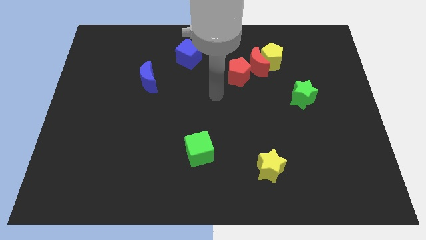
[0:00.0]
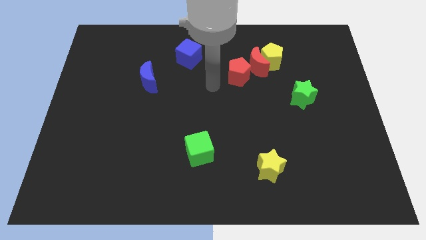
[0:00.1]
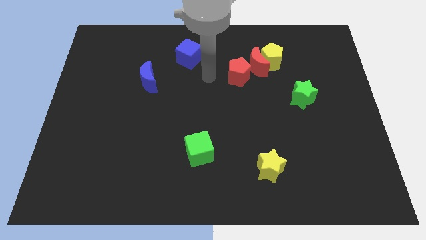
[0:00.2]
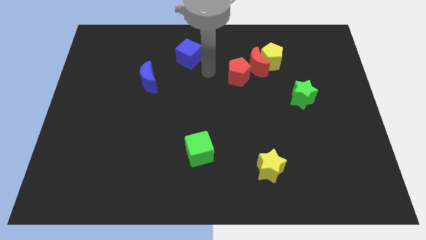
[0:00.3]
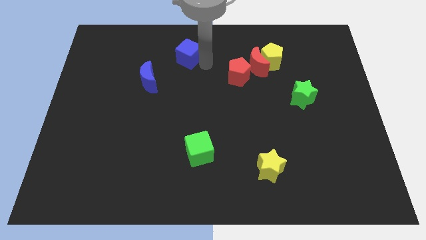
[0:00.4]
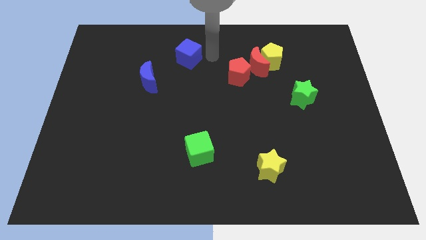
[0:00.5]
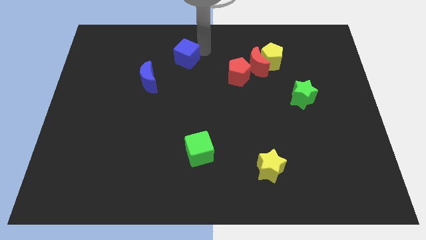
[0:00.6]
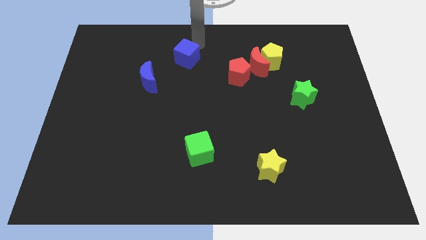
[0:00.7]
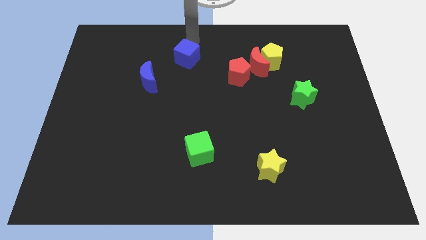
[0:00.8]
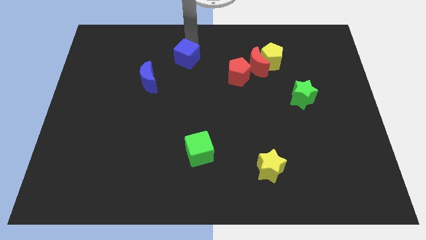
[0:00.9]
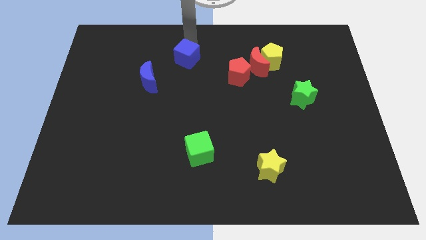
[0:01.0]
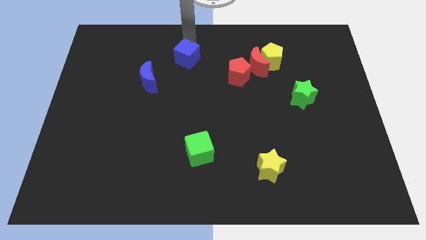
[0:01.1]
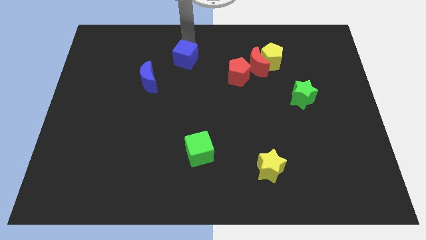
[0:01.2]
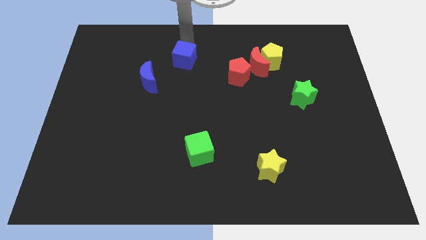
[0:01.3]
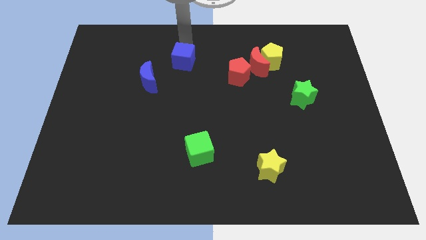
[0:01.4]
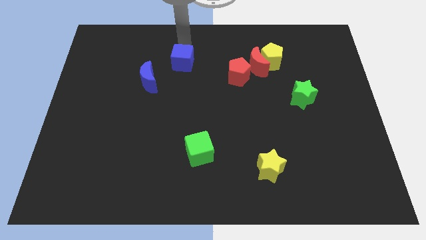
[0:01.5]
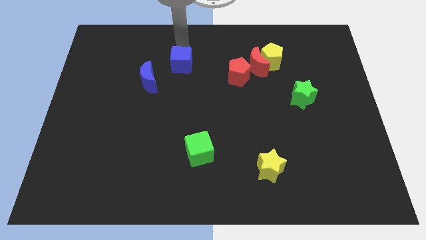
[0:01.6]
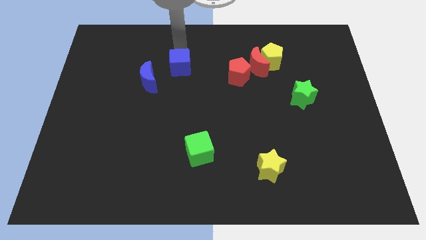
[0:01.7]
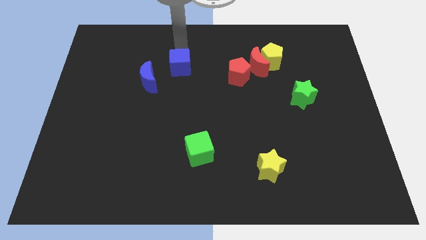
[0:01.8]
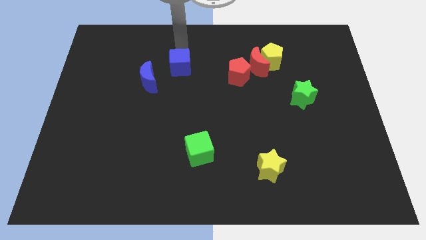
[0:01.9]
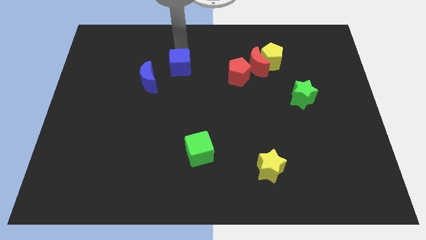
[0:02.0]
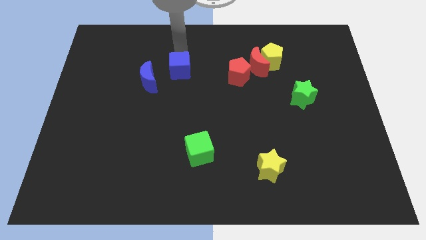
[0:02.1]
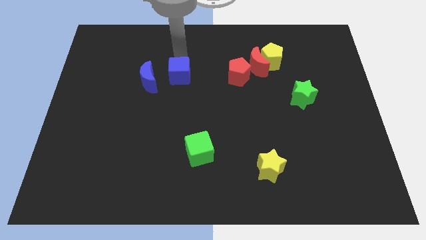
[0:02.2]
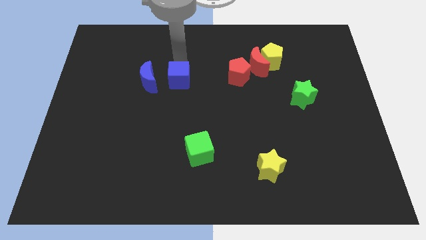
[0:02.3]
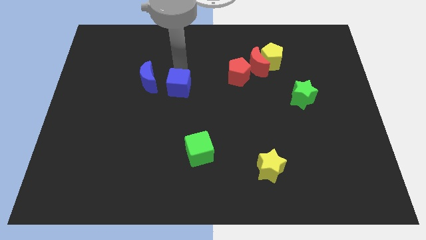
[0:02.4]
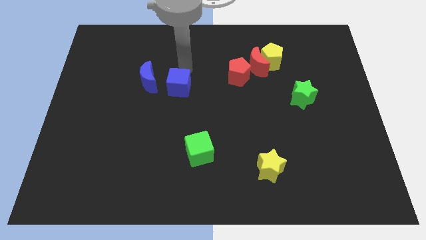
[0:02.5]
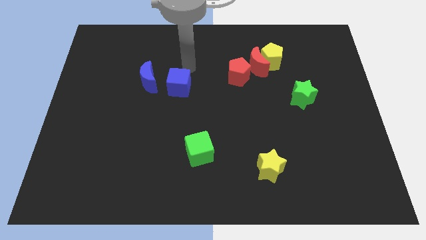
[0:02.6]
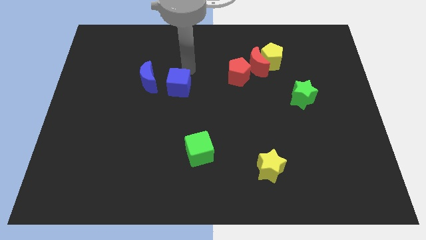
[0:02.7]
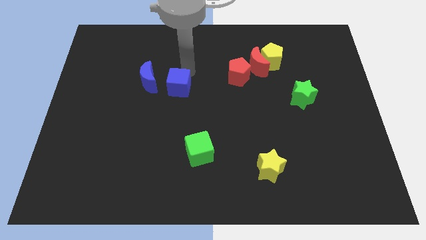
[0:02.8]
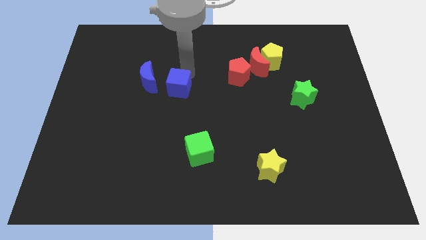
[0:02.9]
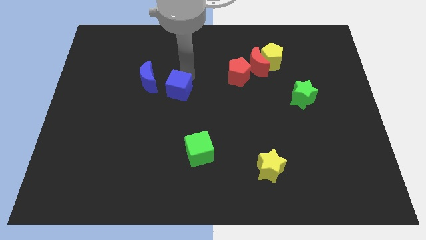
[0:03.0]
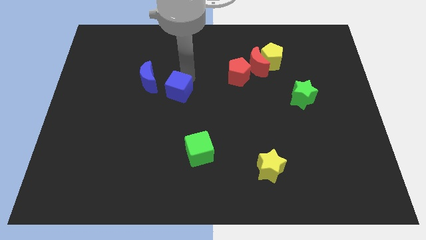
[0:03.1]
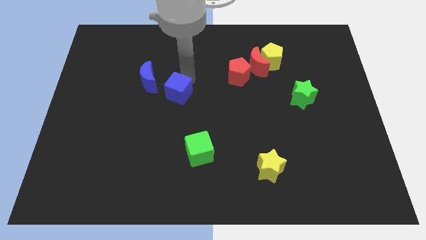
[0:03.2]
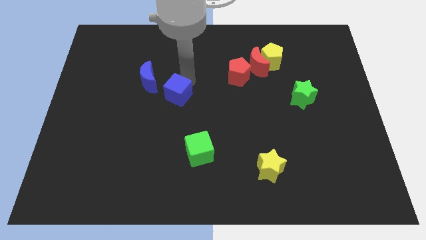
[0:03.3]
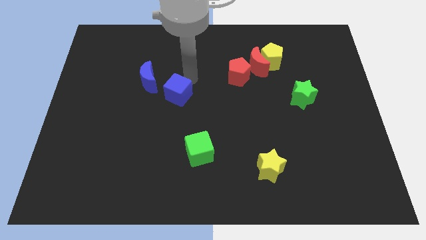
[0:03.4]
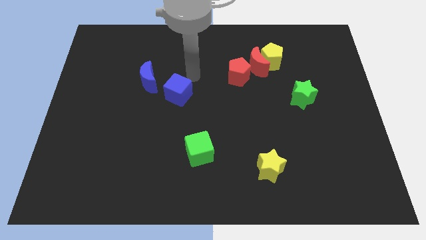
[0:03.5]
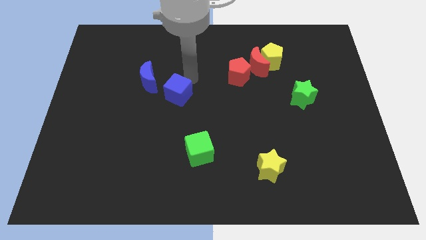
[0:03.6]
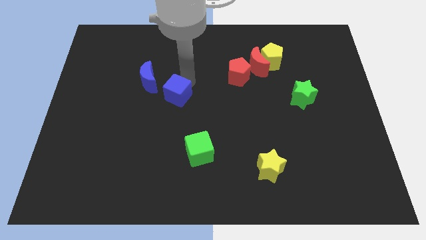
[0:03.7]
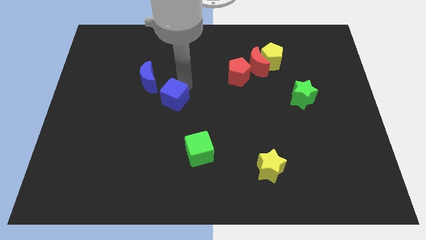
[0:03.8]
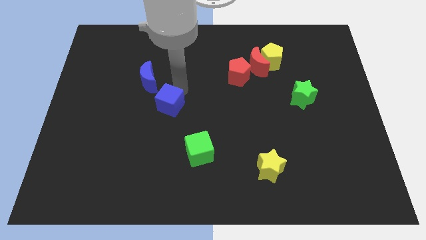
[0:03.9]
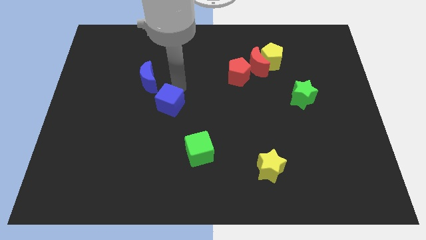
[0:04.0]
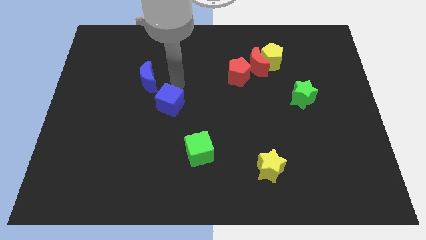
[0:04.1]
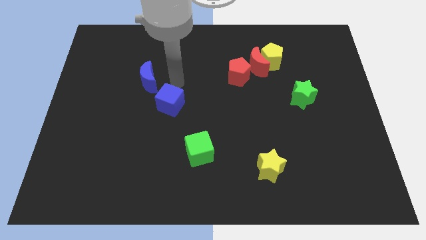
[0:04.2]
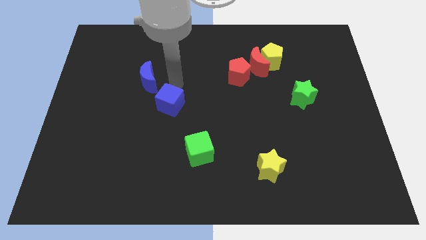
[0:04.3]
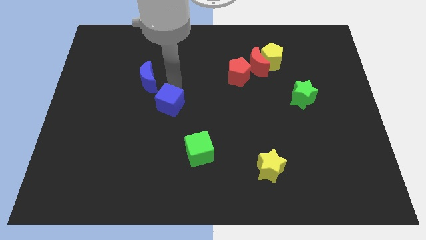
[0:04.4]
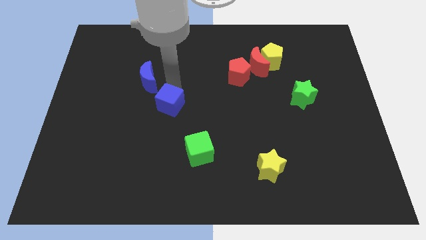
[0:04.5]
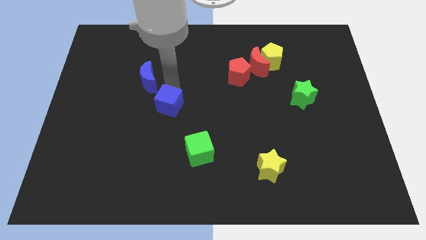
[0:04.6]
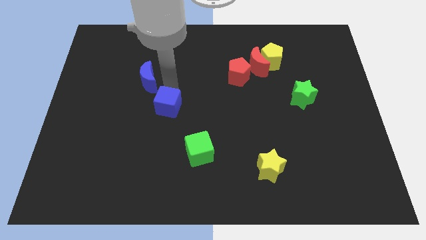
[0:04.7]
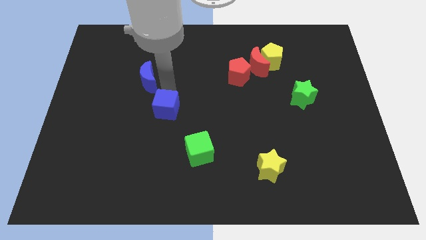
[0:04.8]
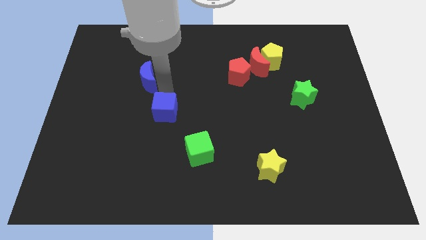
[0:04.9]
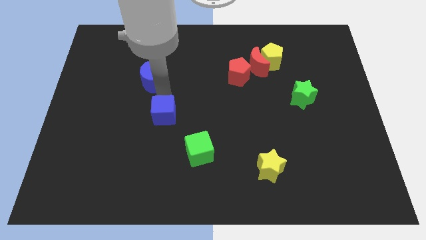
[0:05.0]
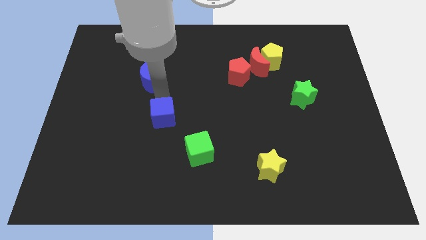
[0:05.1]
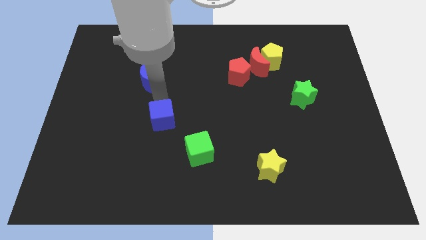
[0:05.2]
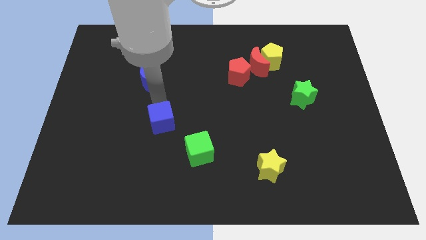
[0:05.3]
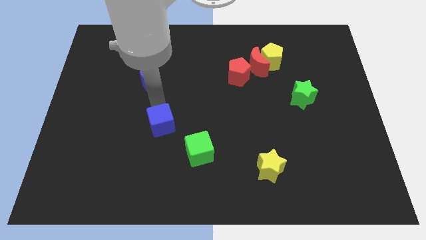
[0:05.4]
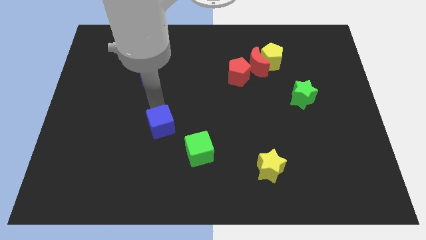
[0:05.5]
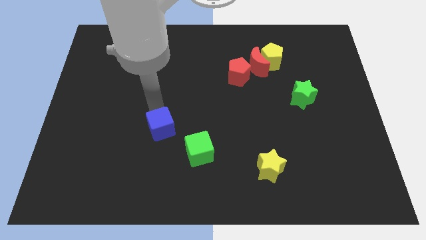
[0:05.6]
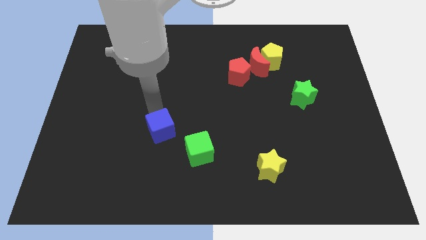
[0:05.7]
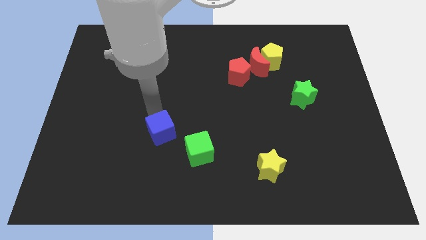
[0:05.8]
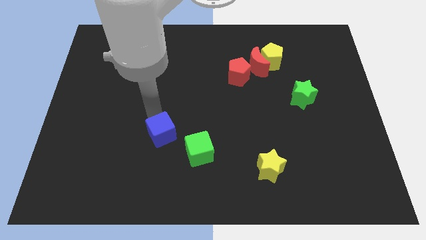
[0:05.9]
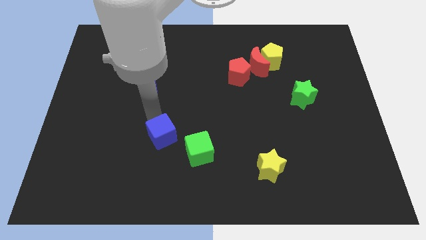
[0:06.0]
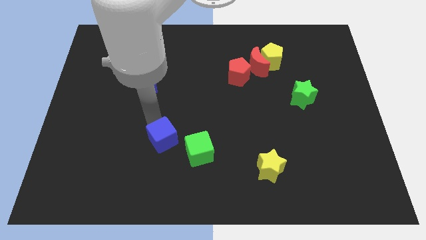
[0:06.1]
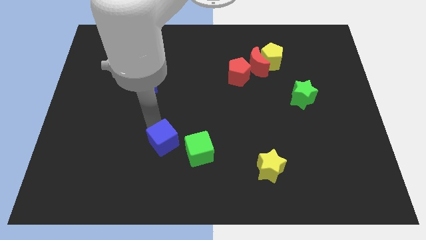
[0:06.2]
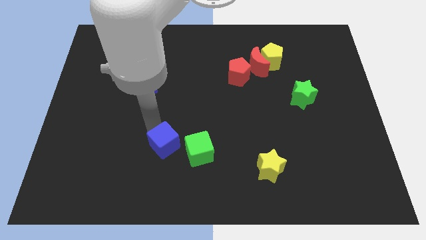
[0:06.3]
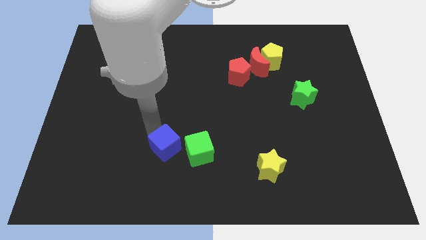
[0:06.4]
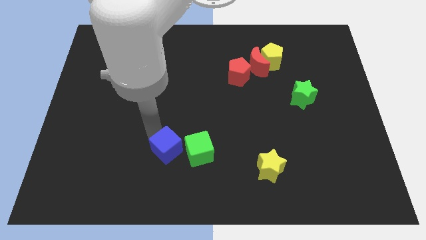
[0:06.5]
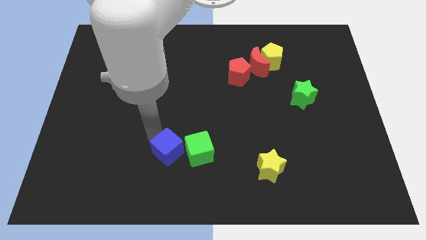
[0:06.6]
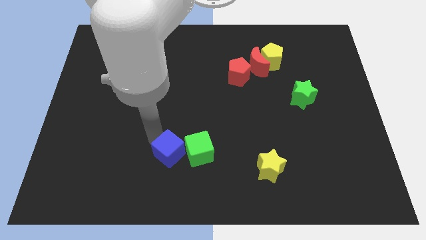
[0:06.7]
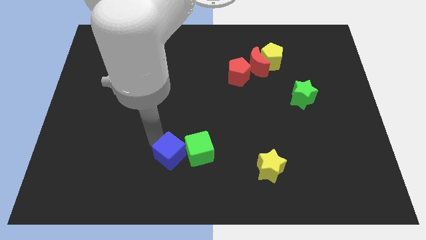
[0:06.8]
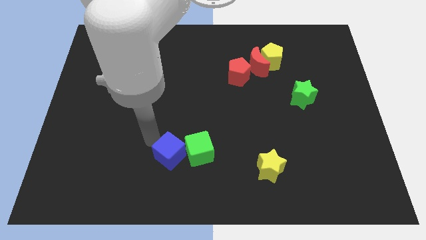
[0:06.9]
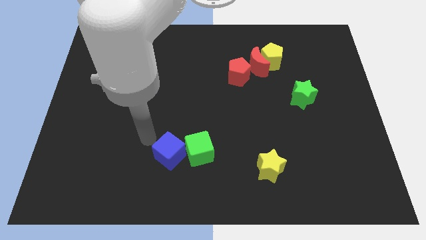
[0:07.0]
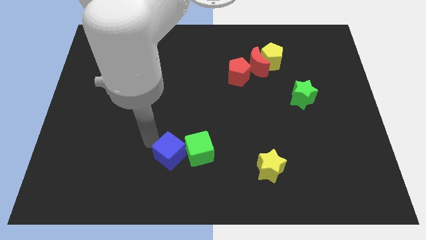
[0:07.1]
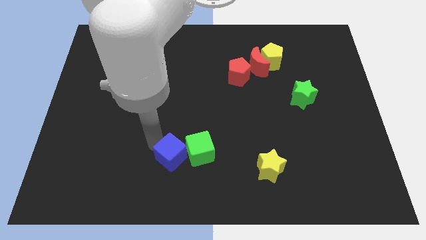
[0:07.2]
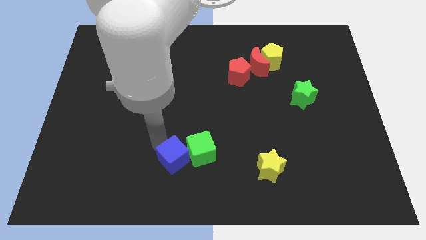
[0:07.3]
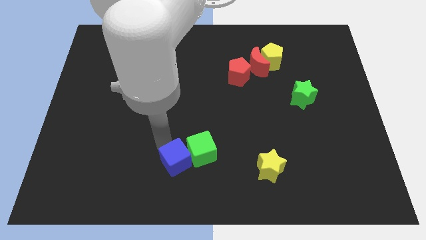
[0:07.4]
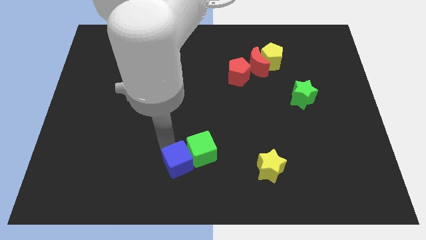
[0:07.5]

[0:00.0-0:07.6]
slide the blue cube to the bottom side
